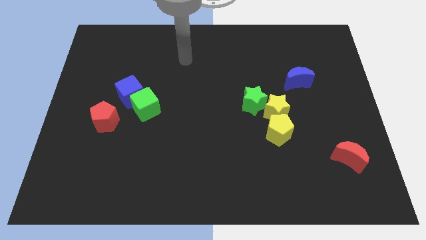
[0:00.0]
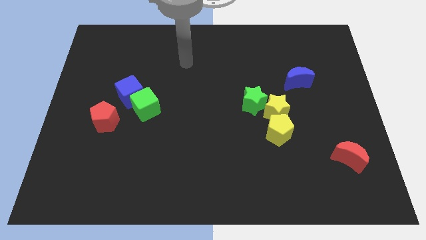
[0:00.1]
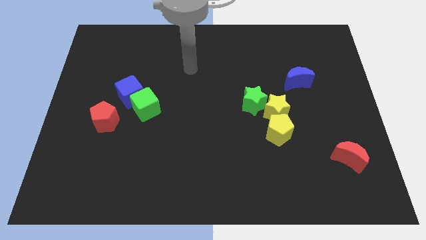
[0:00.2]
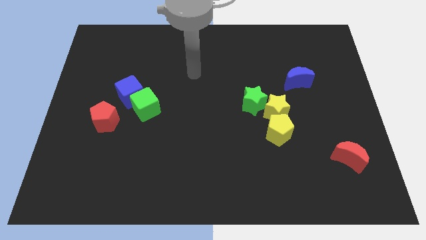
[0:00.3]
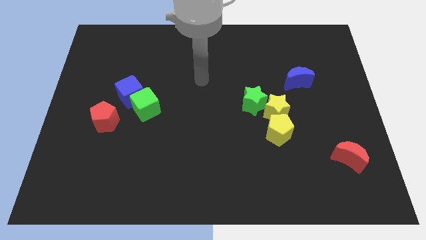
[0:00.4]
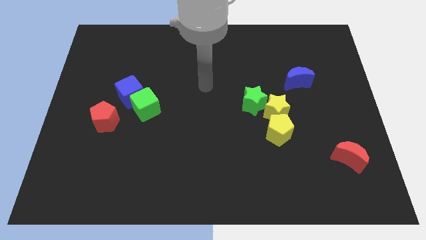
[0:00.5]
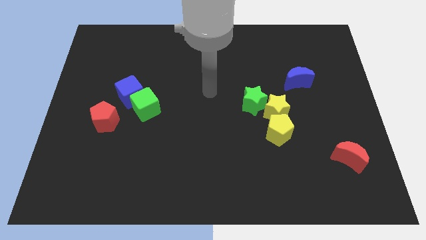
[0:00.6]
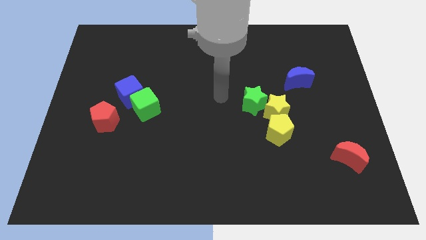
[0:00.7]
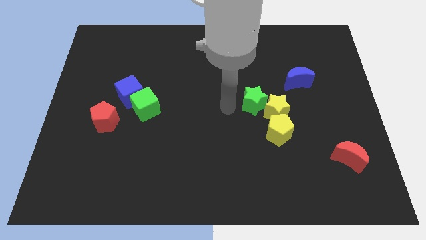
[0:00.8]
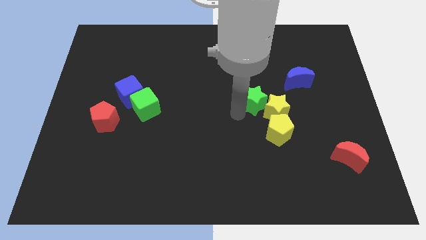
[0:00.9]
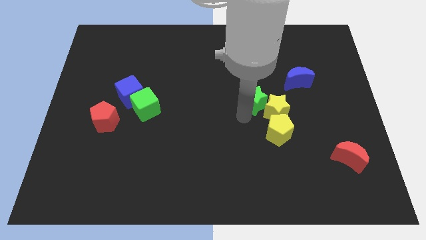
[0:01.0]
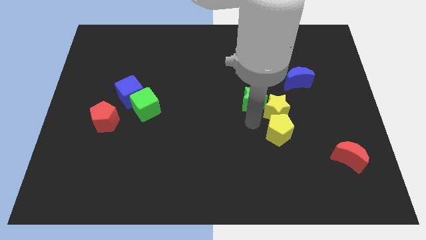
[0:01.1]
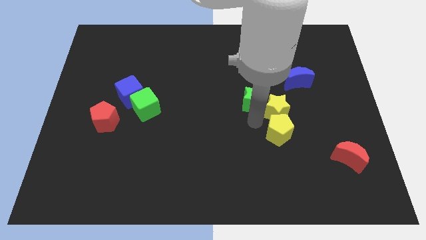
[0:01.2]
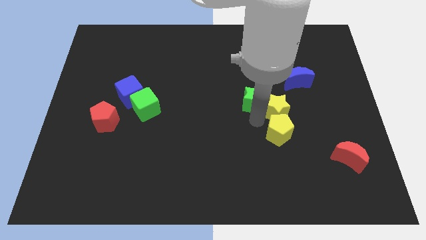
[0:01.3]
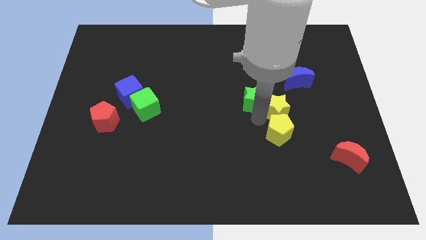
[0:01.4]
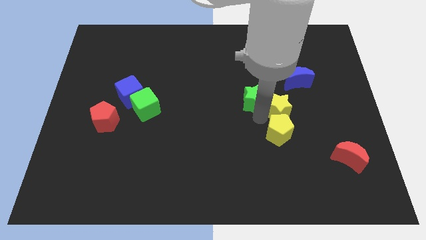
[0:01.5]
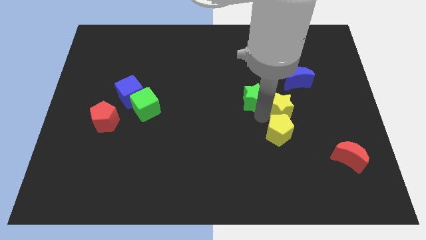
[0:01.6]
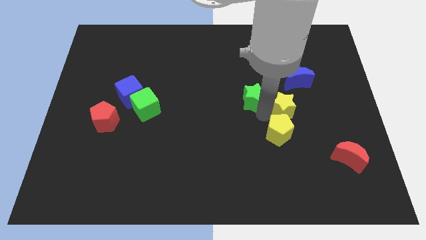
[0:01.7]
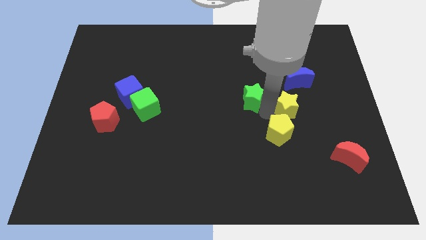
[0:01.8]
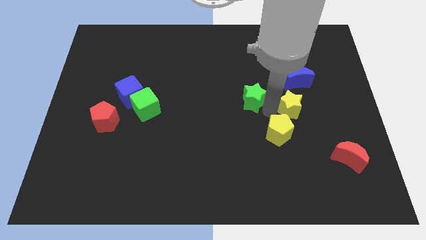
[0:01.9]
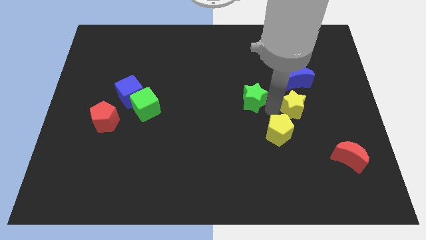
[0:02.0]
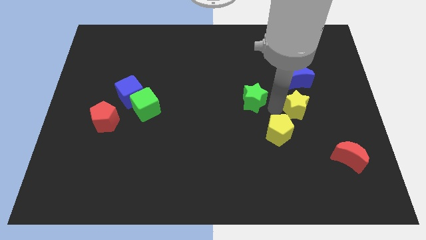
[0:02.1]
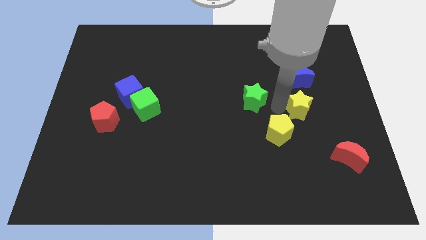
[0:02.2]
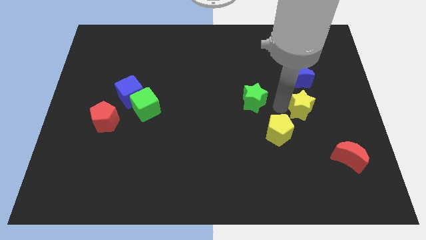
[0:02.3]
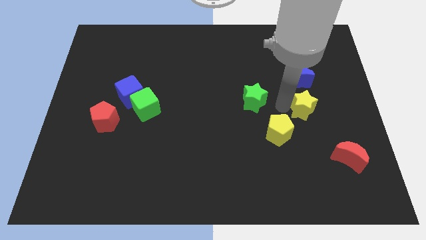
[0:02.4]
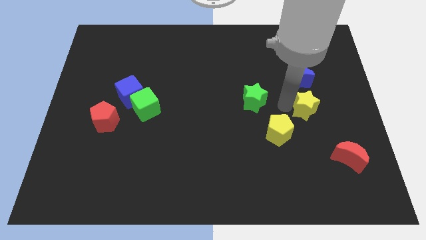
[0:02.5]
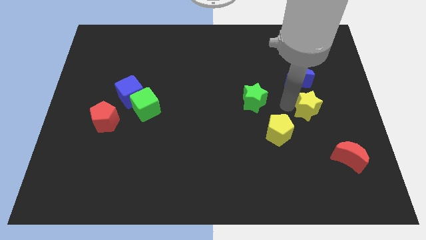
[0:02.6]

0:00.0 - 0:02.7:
separate the yellow star from the yellow pentagon and green star

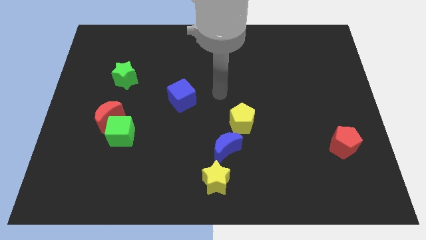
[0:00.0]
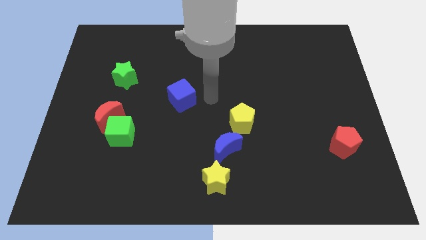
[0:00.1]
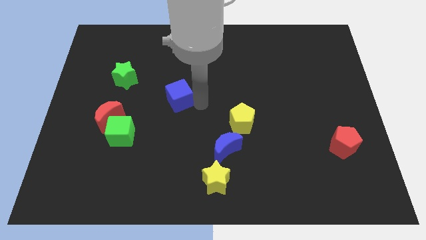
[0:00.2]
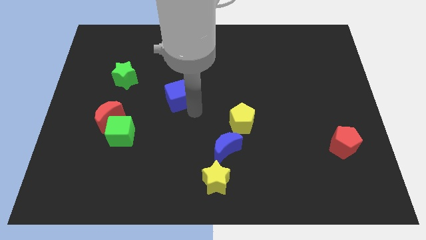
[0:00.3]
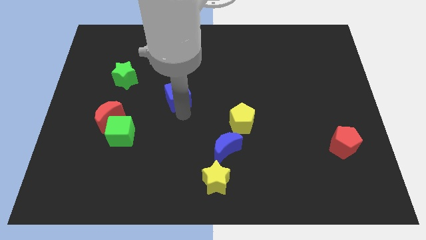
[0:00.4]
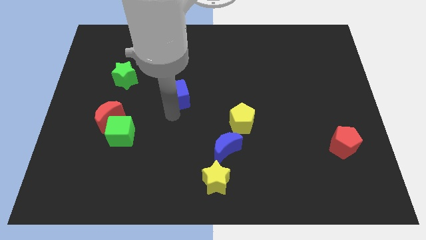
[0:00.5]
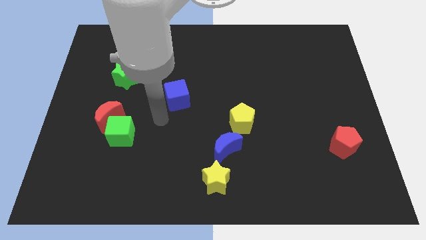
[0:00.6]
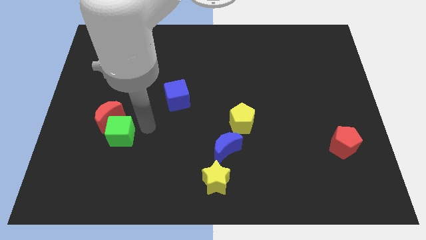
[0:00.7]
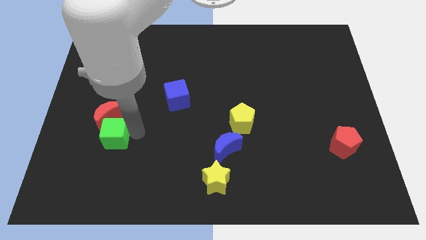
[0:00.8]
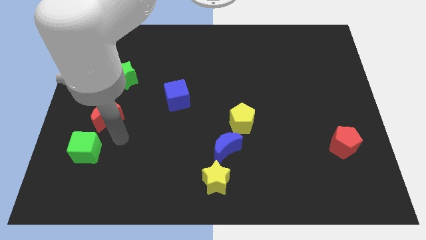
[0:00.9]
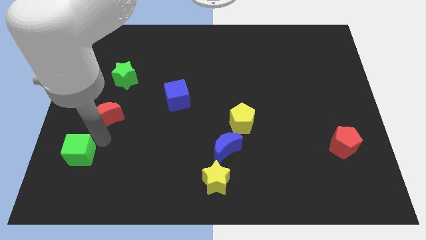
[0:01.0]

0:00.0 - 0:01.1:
separate the red moon from the green cube

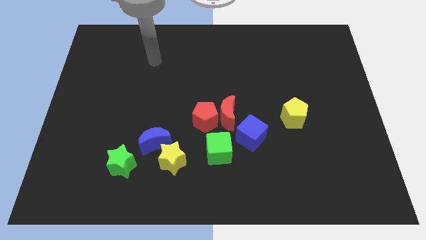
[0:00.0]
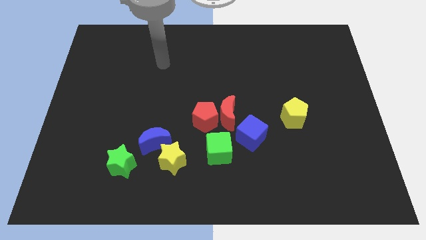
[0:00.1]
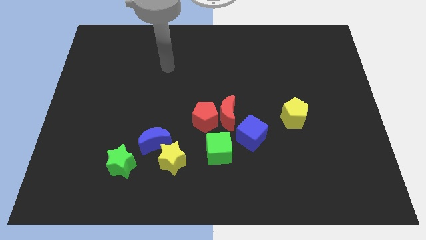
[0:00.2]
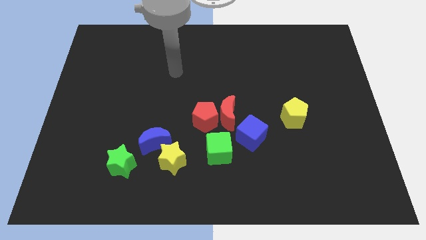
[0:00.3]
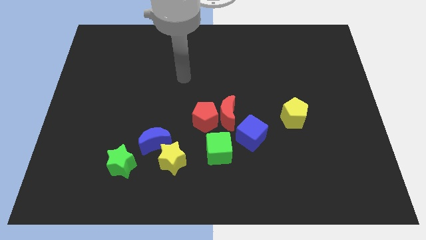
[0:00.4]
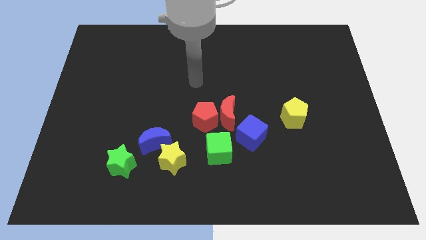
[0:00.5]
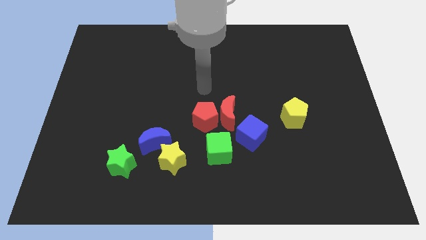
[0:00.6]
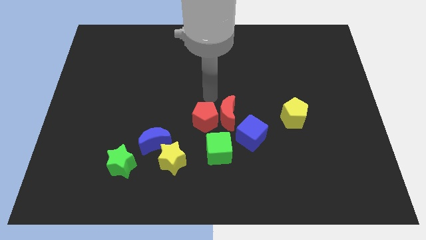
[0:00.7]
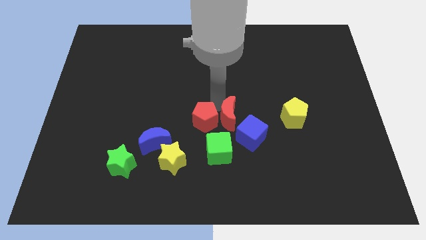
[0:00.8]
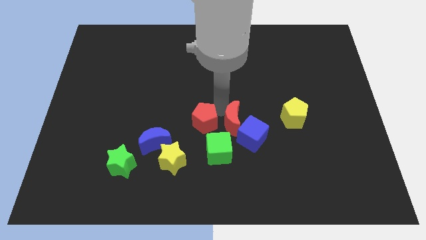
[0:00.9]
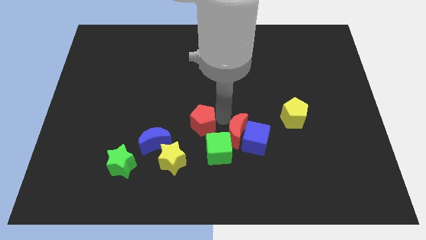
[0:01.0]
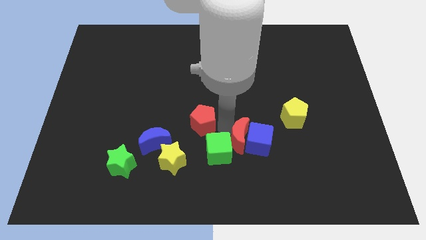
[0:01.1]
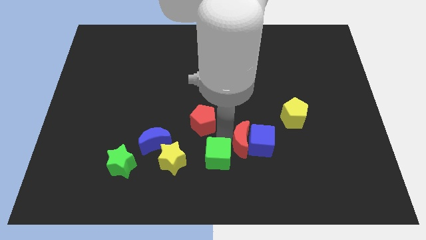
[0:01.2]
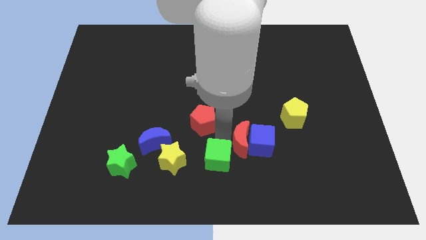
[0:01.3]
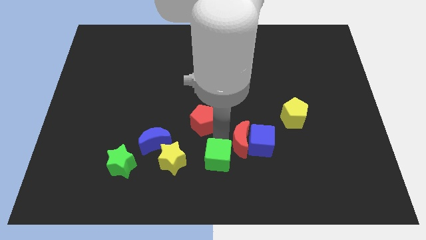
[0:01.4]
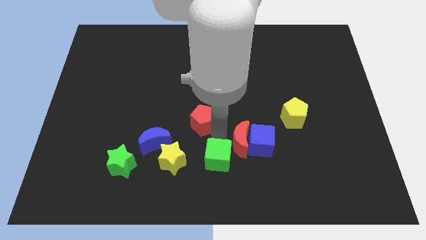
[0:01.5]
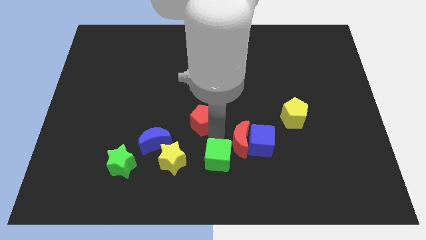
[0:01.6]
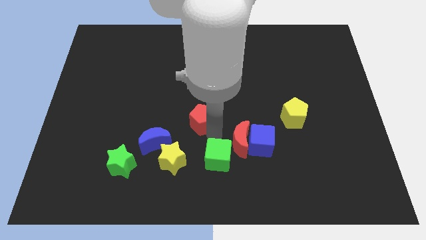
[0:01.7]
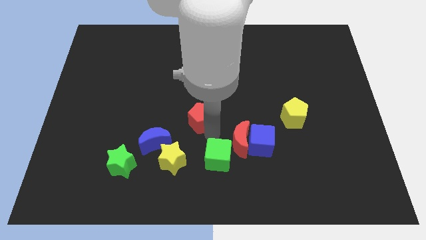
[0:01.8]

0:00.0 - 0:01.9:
pull the red pentagon apart from the red moon and green cube

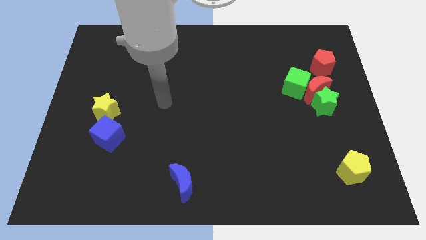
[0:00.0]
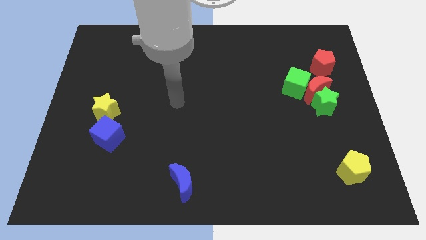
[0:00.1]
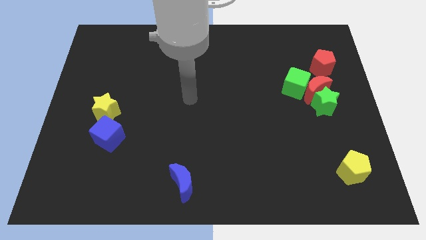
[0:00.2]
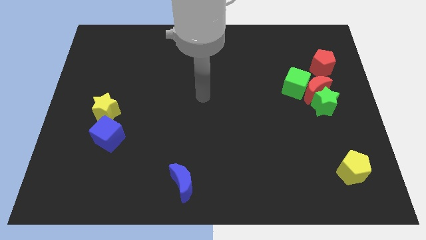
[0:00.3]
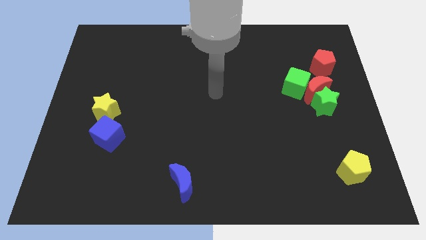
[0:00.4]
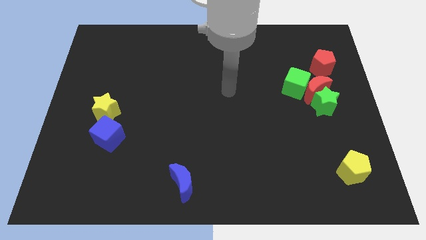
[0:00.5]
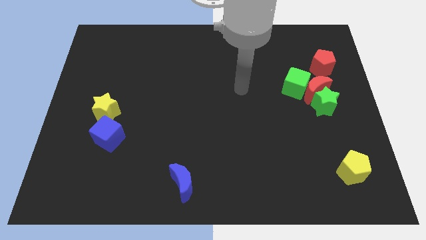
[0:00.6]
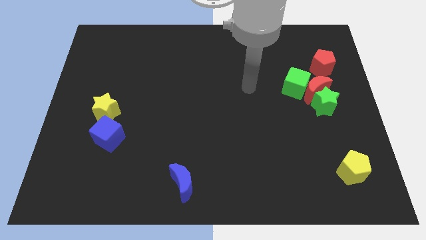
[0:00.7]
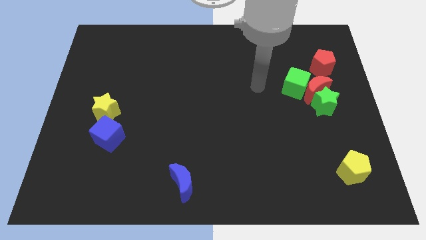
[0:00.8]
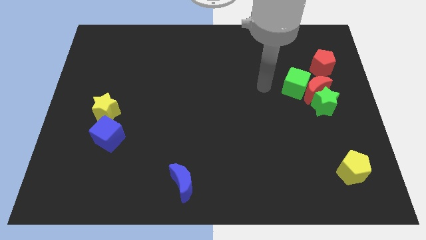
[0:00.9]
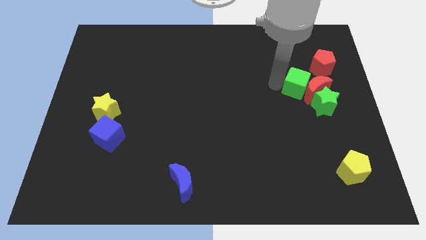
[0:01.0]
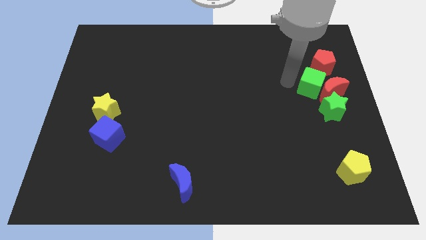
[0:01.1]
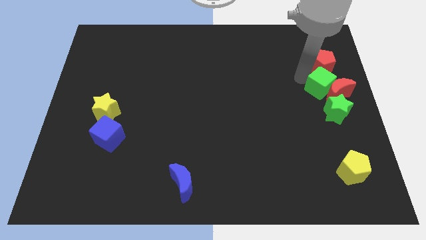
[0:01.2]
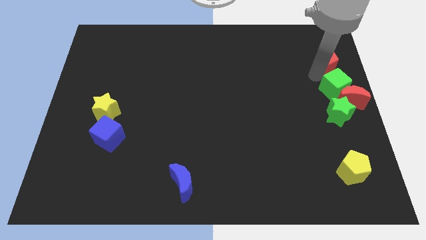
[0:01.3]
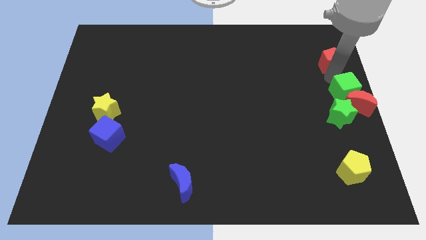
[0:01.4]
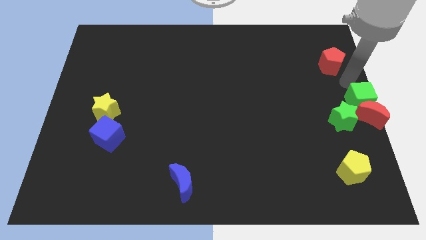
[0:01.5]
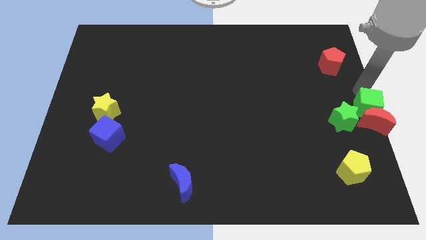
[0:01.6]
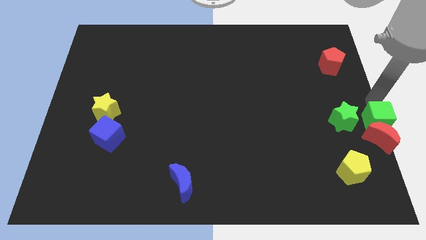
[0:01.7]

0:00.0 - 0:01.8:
pull the red moon apart from the green star, green cube, and red pentagon

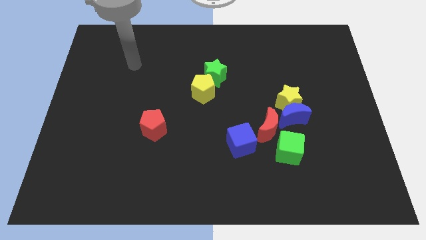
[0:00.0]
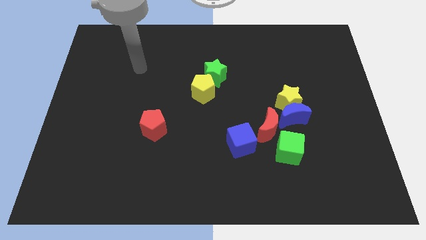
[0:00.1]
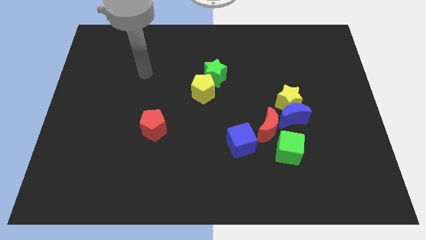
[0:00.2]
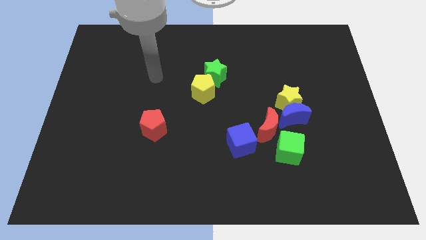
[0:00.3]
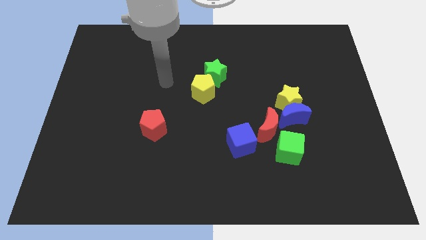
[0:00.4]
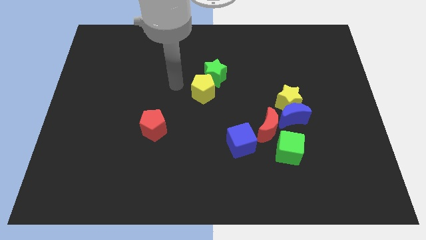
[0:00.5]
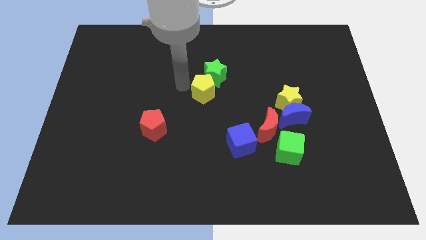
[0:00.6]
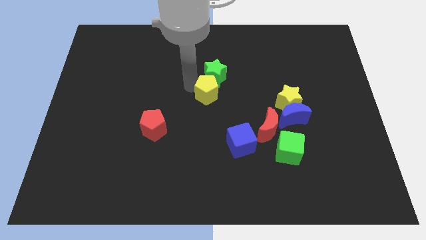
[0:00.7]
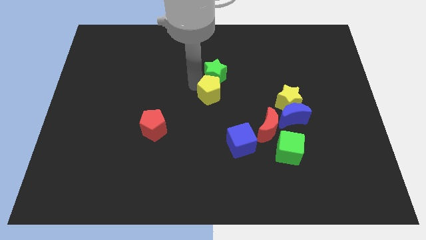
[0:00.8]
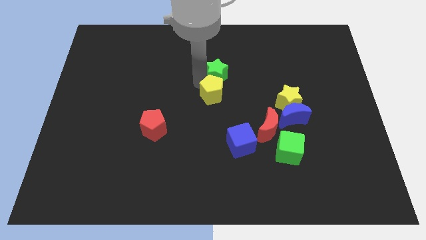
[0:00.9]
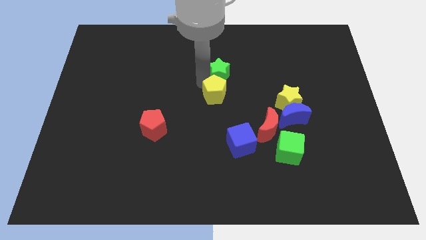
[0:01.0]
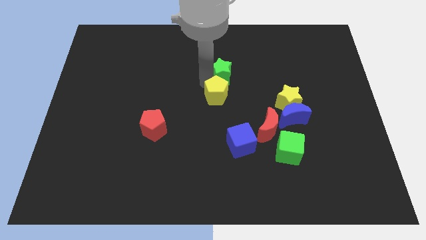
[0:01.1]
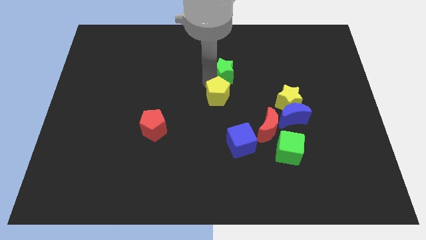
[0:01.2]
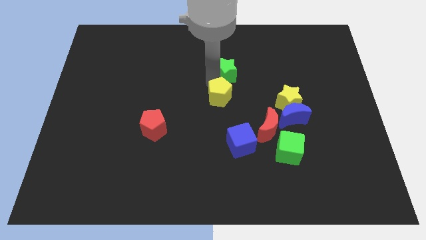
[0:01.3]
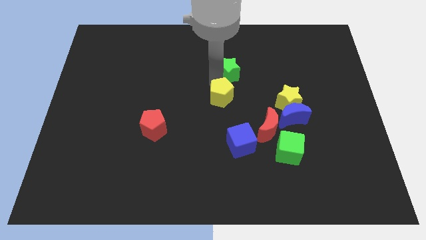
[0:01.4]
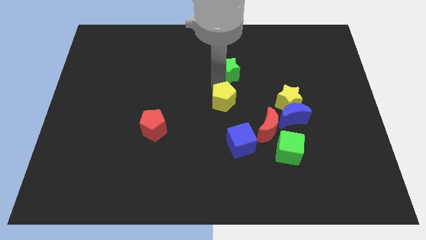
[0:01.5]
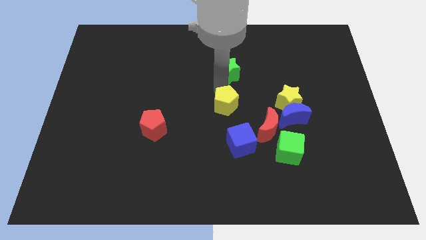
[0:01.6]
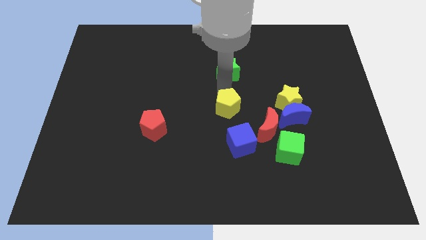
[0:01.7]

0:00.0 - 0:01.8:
move the green star away from the yellow pentagon

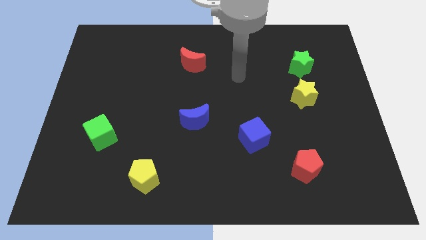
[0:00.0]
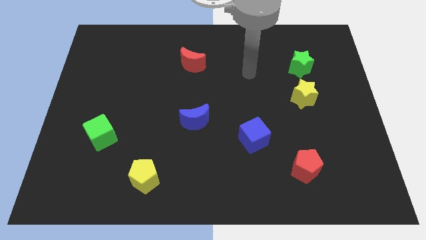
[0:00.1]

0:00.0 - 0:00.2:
pull the green star apart from the yellow star

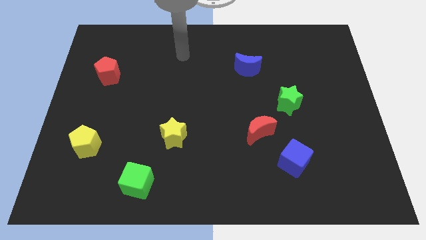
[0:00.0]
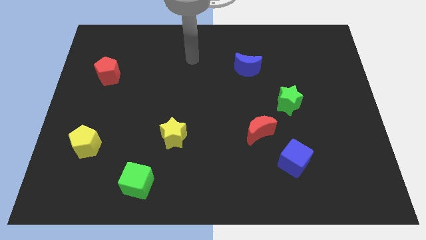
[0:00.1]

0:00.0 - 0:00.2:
move the red moon away from the blue cube
